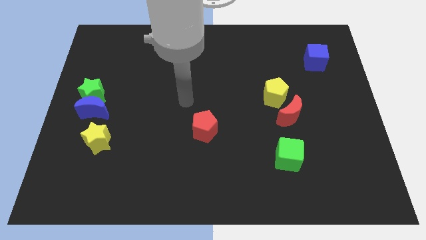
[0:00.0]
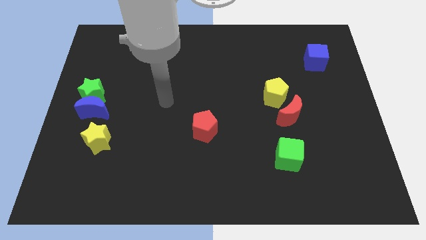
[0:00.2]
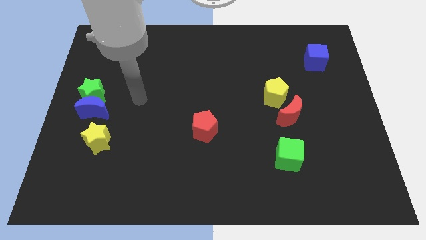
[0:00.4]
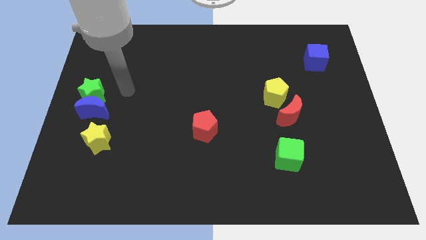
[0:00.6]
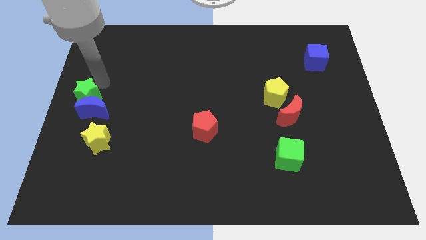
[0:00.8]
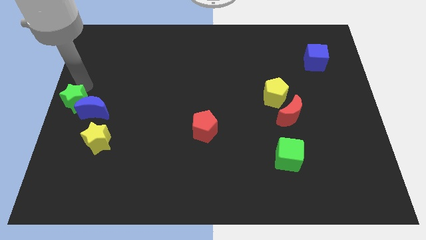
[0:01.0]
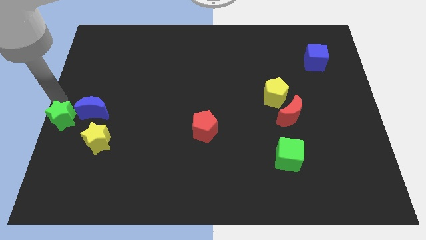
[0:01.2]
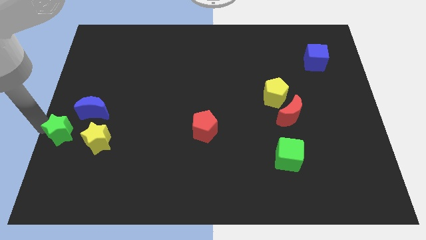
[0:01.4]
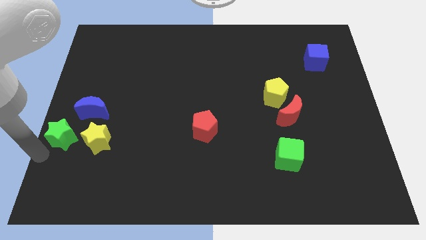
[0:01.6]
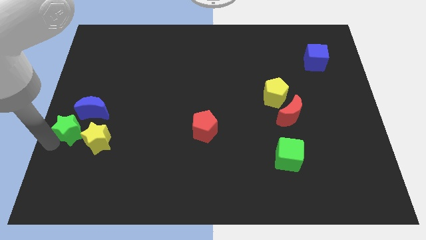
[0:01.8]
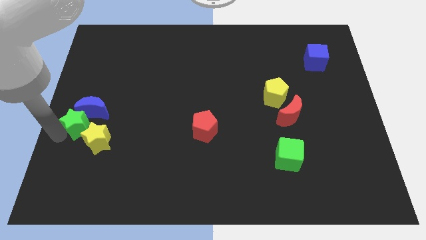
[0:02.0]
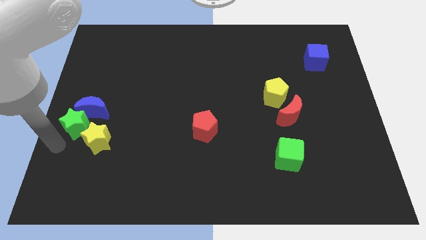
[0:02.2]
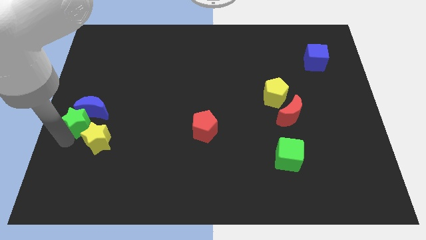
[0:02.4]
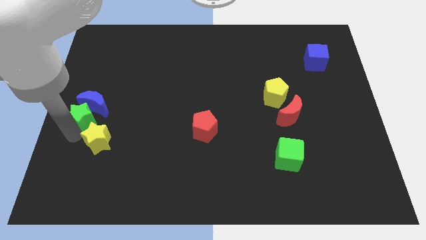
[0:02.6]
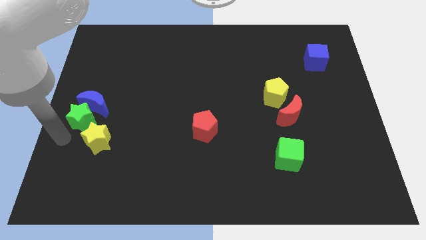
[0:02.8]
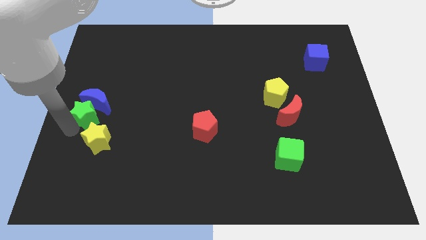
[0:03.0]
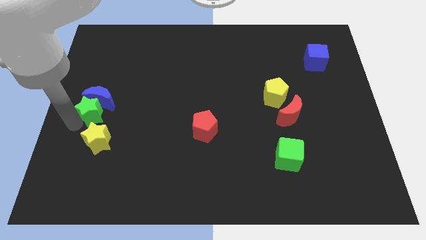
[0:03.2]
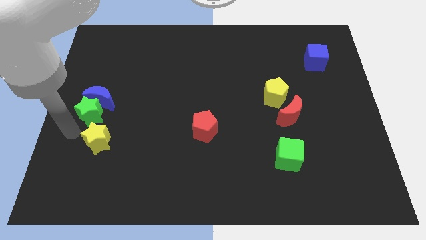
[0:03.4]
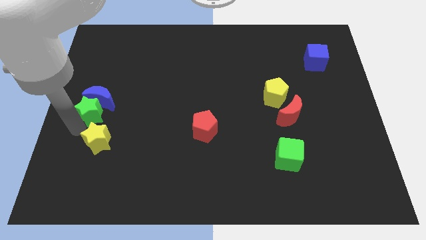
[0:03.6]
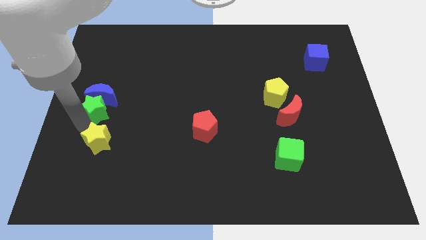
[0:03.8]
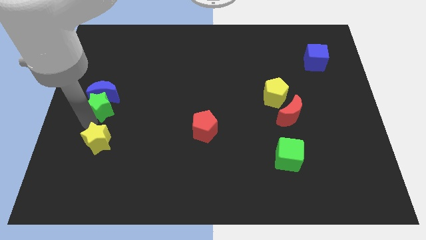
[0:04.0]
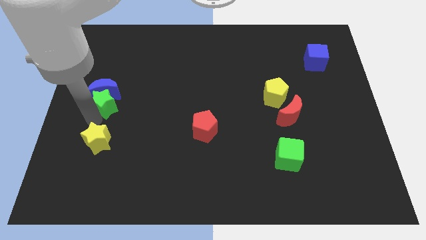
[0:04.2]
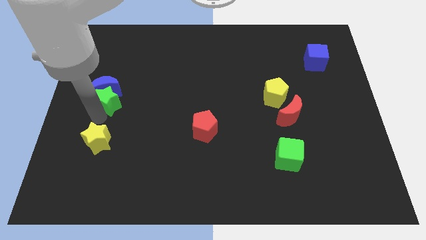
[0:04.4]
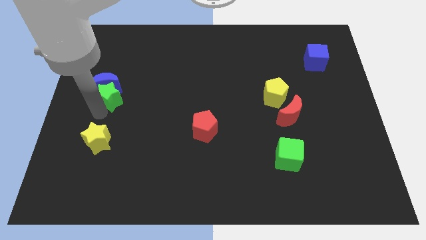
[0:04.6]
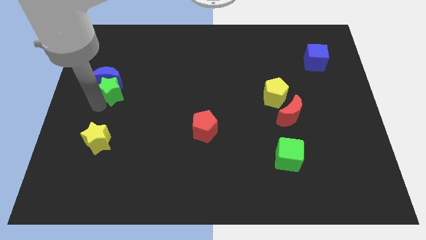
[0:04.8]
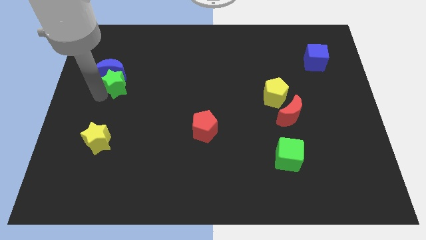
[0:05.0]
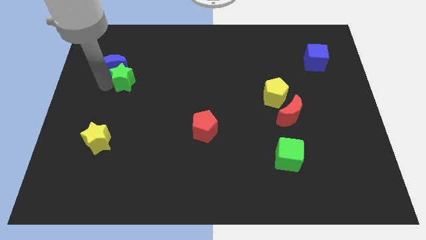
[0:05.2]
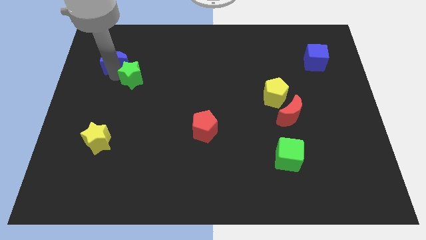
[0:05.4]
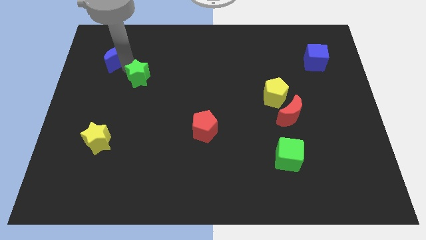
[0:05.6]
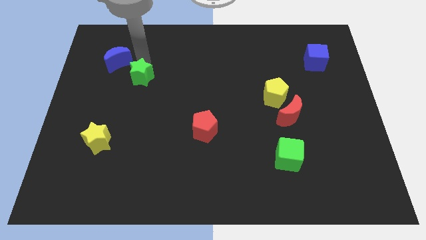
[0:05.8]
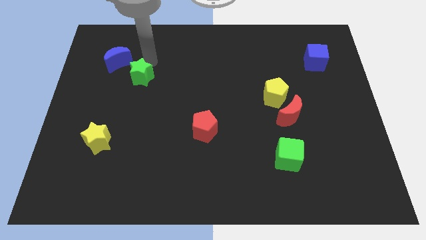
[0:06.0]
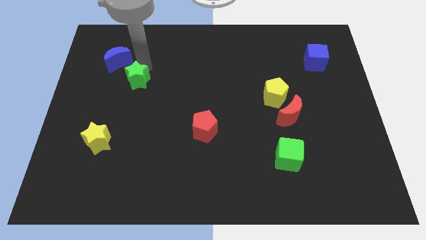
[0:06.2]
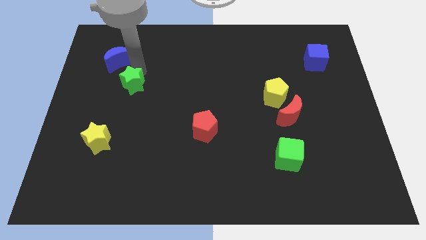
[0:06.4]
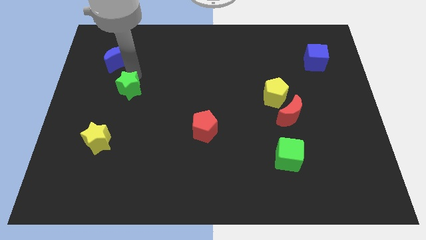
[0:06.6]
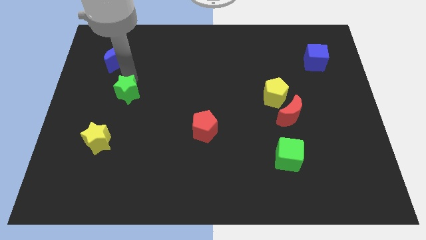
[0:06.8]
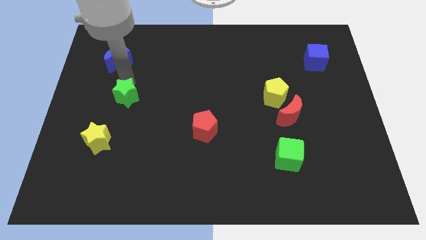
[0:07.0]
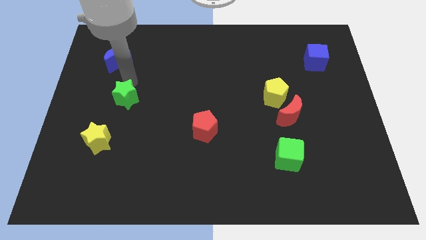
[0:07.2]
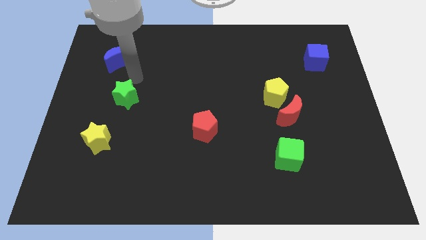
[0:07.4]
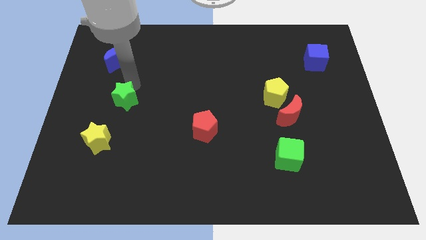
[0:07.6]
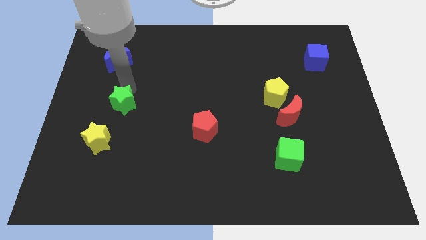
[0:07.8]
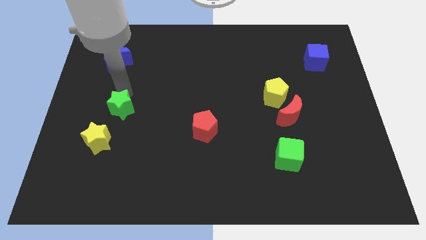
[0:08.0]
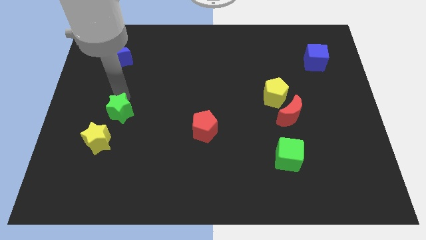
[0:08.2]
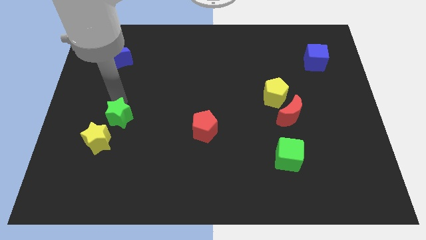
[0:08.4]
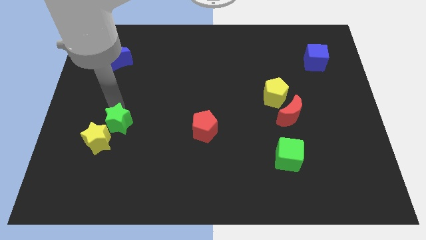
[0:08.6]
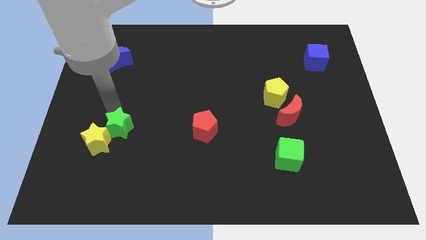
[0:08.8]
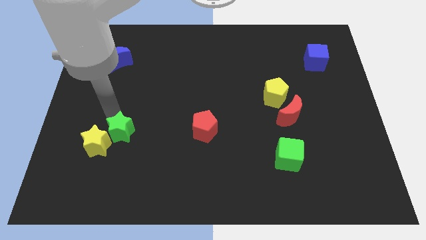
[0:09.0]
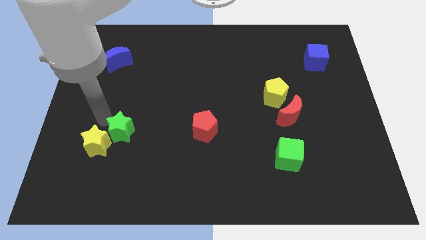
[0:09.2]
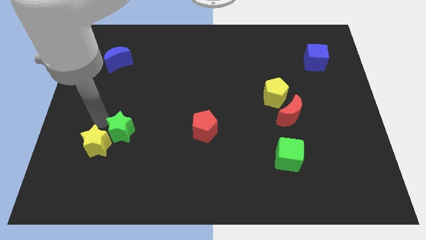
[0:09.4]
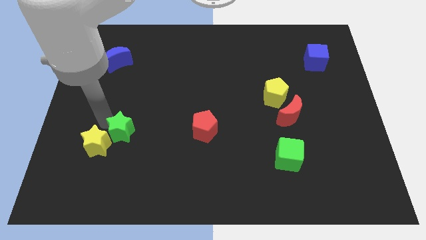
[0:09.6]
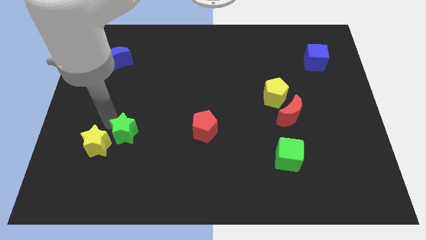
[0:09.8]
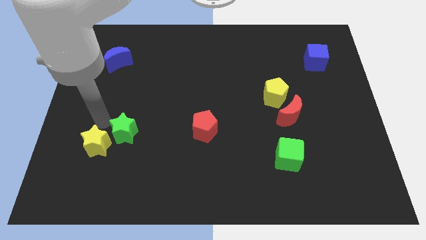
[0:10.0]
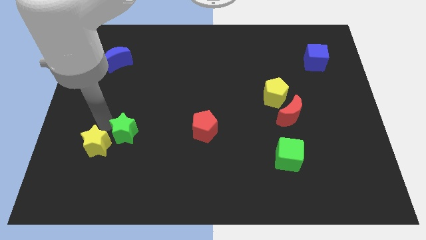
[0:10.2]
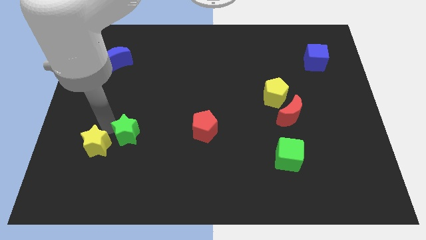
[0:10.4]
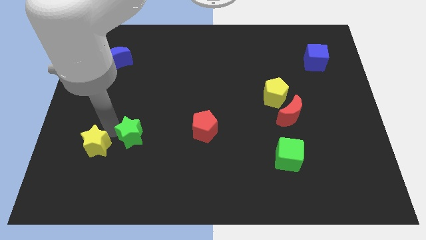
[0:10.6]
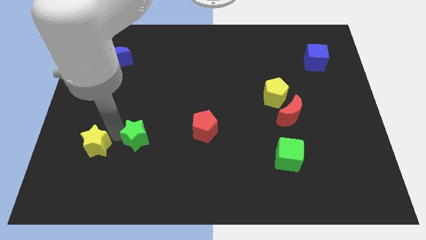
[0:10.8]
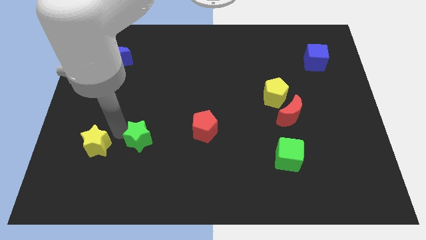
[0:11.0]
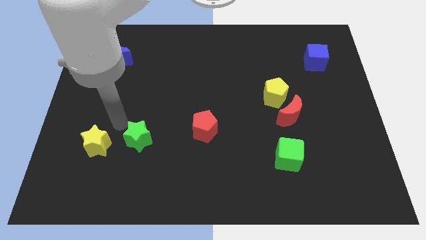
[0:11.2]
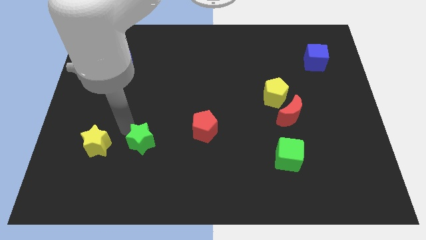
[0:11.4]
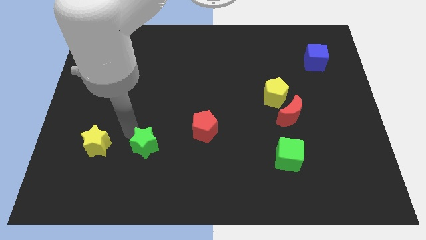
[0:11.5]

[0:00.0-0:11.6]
push the green star diagonally downwards and right

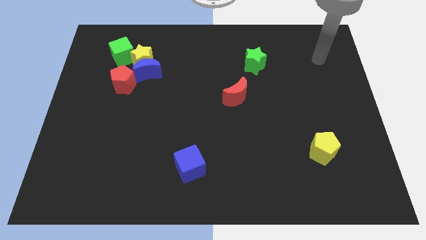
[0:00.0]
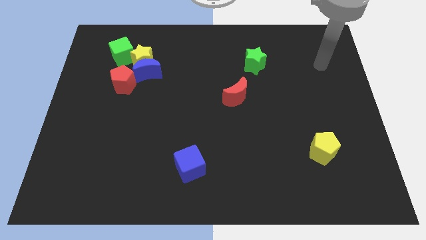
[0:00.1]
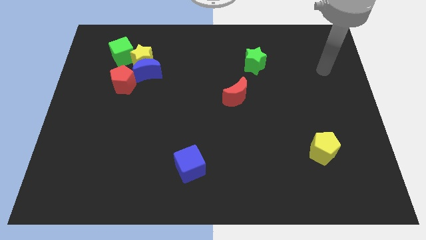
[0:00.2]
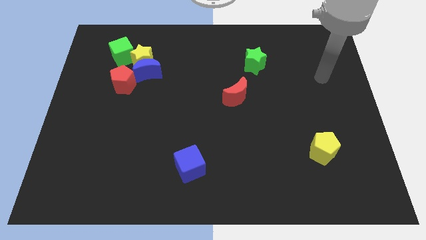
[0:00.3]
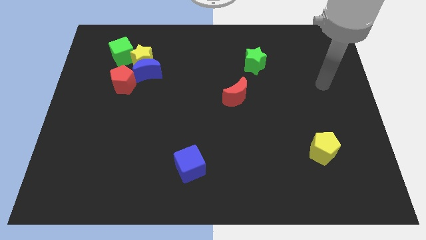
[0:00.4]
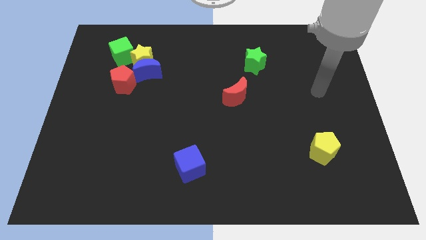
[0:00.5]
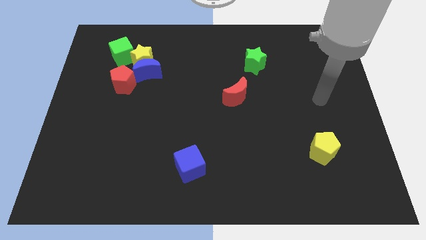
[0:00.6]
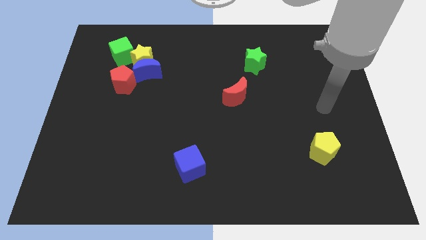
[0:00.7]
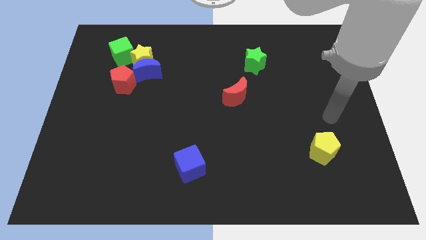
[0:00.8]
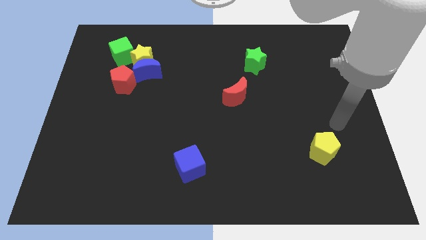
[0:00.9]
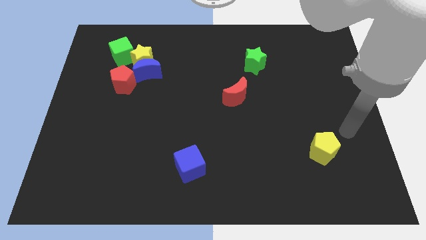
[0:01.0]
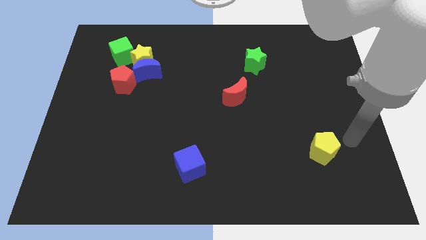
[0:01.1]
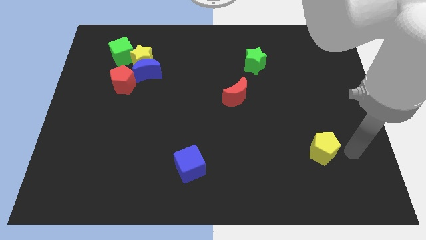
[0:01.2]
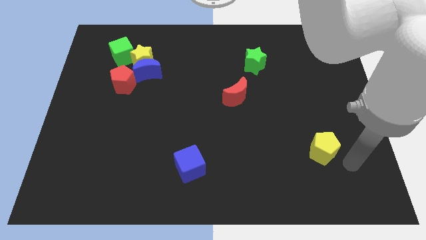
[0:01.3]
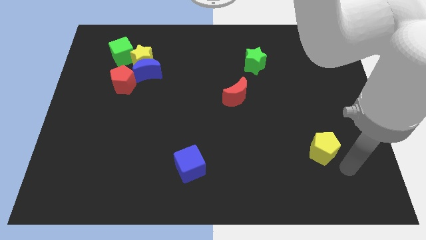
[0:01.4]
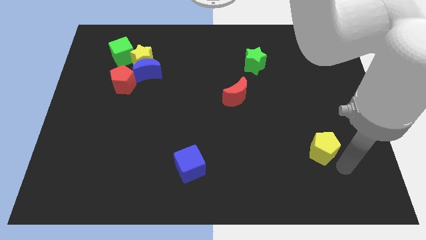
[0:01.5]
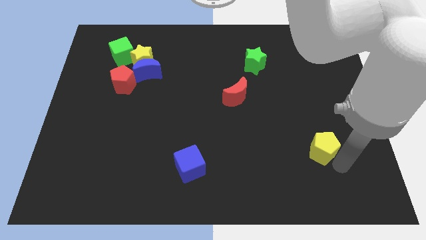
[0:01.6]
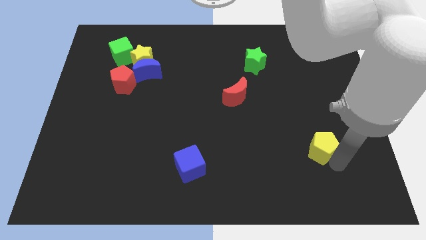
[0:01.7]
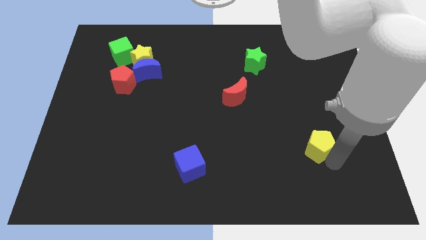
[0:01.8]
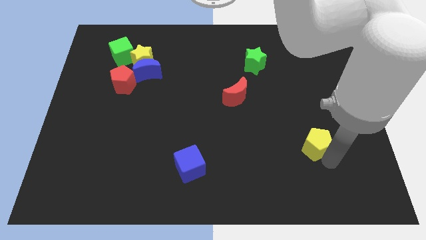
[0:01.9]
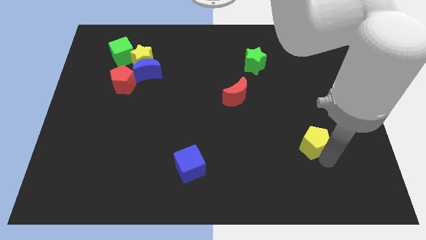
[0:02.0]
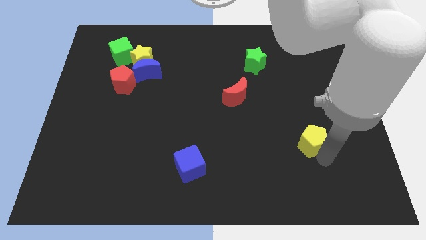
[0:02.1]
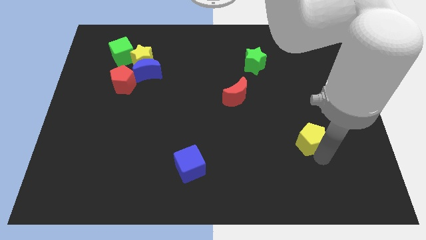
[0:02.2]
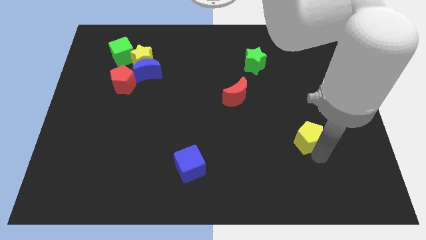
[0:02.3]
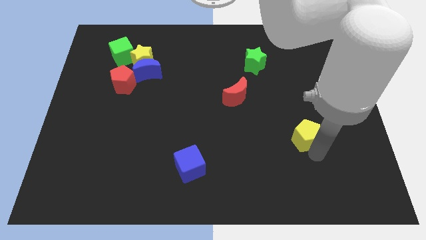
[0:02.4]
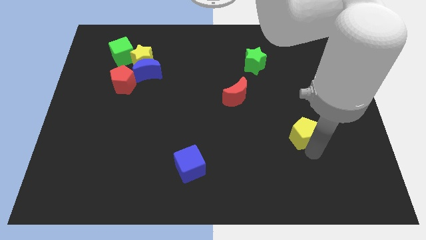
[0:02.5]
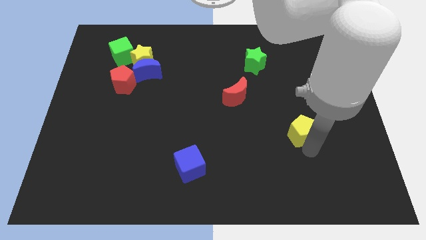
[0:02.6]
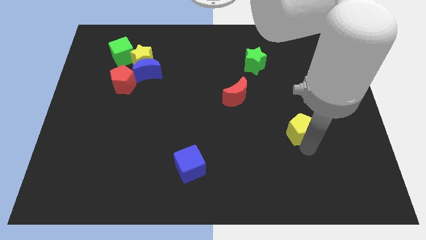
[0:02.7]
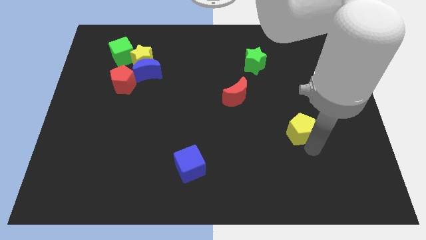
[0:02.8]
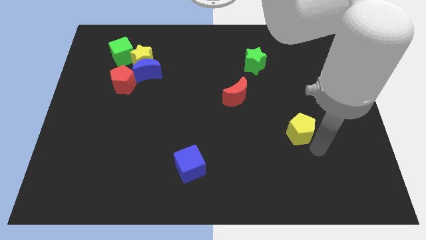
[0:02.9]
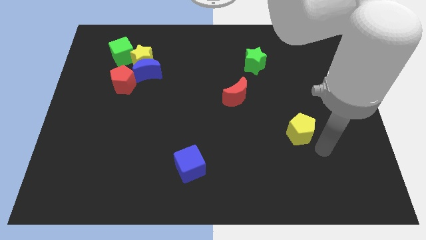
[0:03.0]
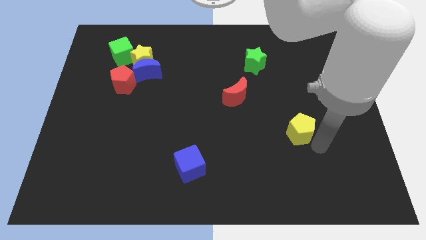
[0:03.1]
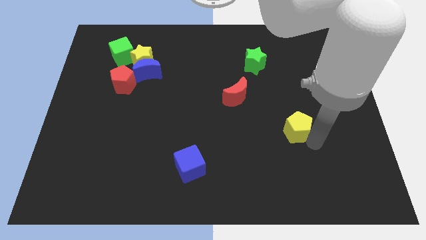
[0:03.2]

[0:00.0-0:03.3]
push the yellow pentagon a little upwards and left
